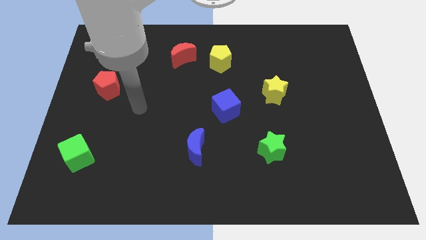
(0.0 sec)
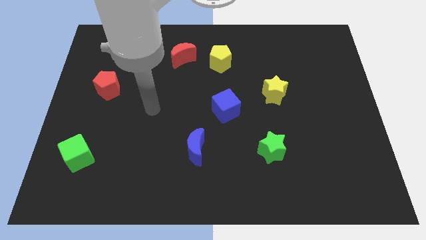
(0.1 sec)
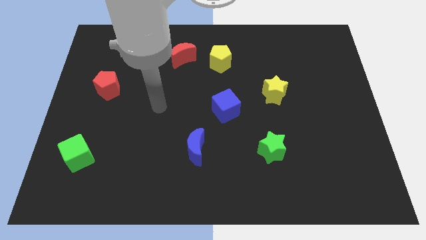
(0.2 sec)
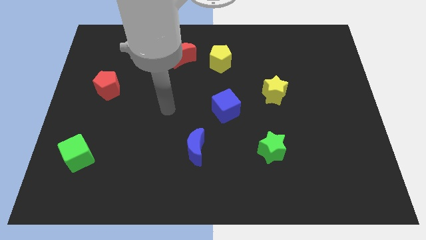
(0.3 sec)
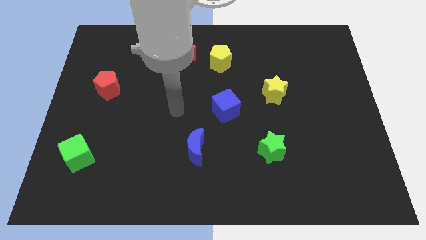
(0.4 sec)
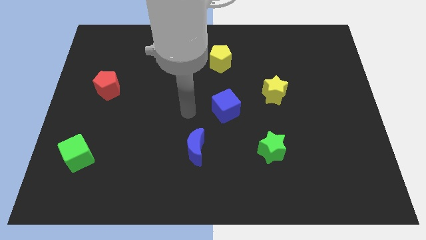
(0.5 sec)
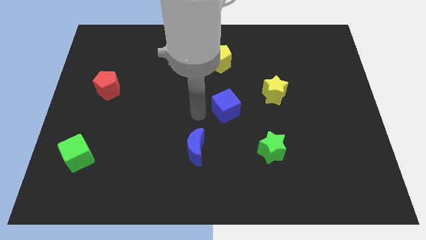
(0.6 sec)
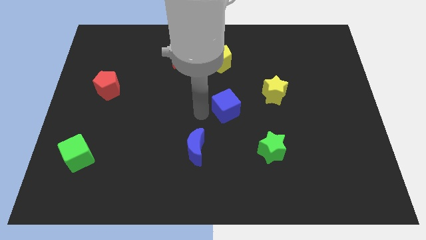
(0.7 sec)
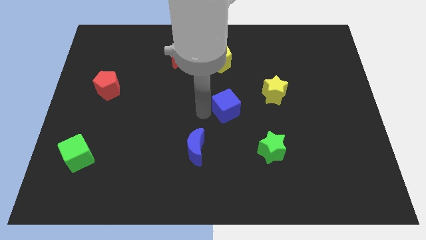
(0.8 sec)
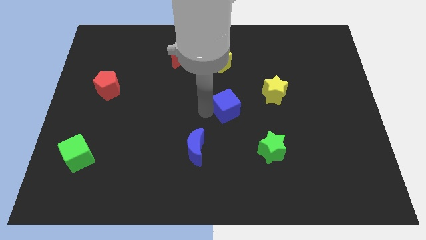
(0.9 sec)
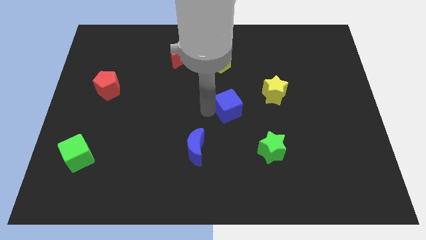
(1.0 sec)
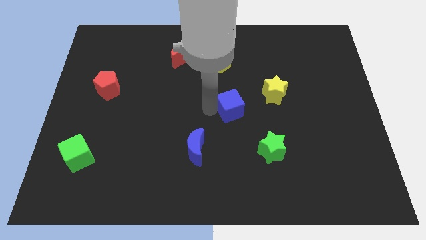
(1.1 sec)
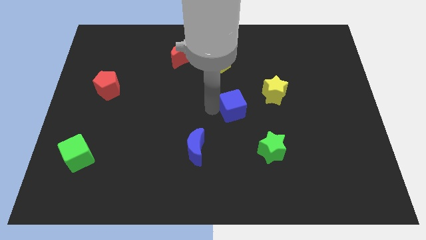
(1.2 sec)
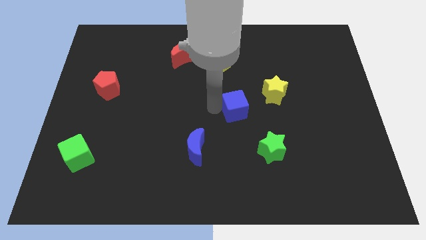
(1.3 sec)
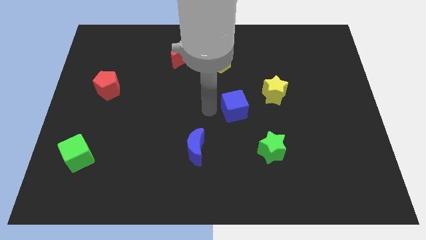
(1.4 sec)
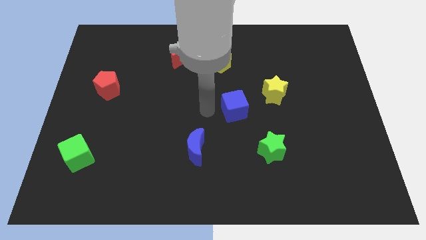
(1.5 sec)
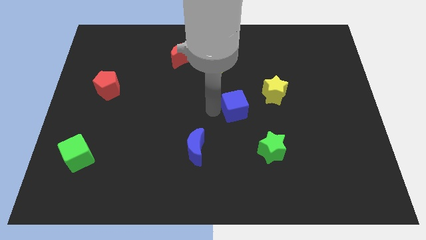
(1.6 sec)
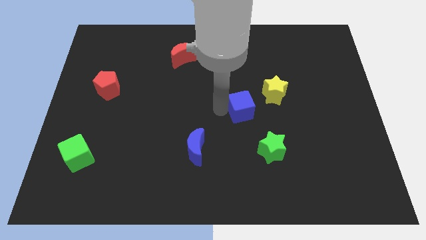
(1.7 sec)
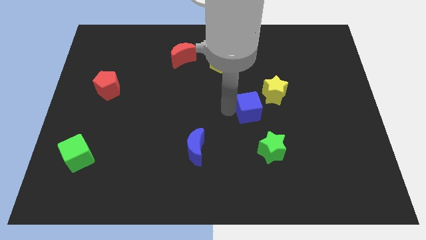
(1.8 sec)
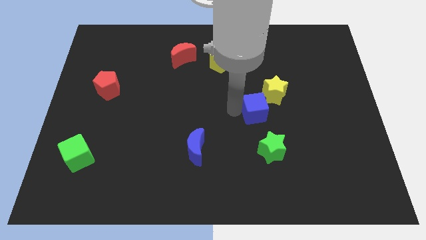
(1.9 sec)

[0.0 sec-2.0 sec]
slide the blue cube somewhat to the right

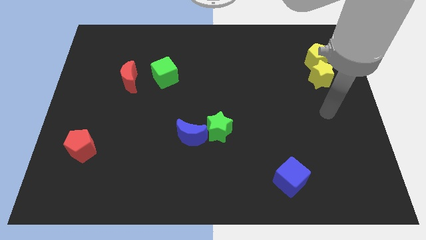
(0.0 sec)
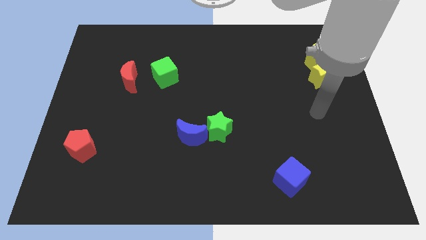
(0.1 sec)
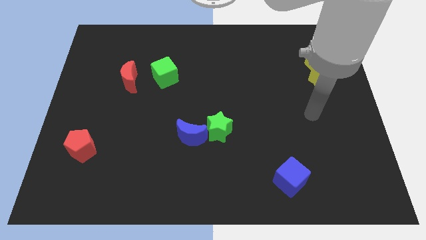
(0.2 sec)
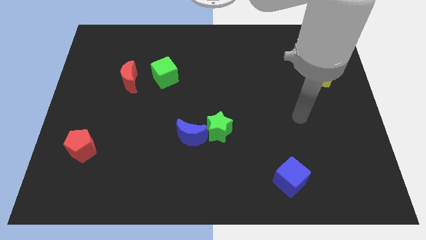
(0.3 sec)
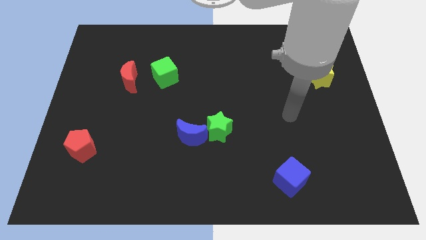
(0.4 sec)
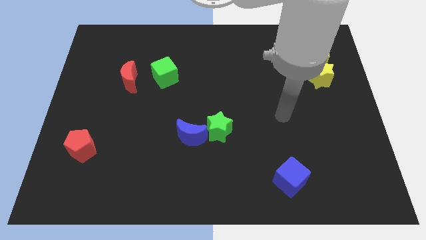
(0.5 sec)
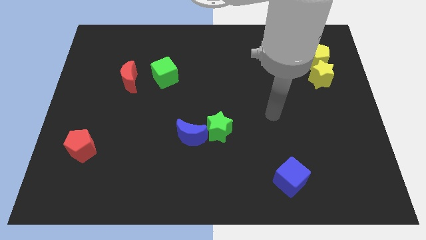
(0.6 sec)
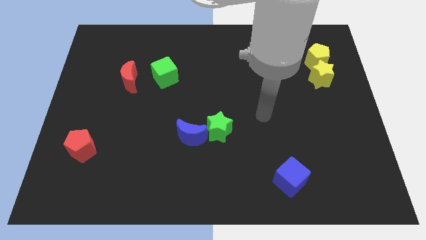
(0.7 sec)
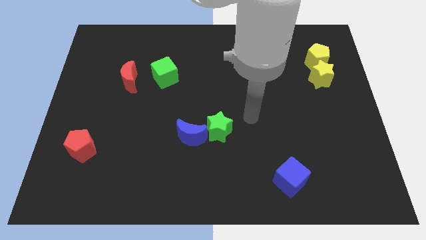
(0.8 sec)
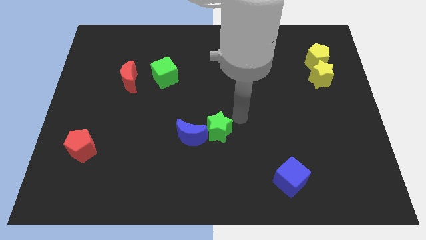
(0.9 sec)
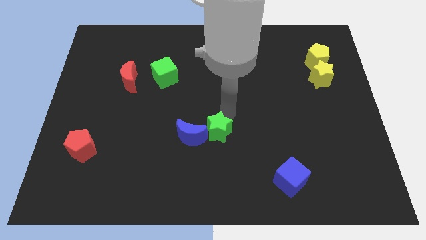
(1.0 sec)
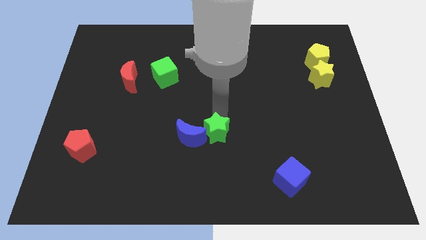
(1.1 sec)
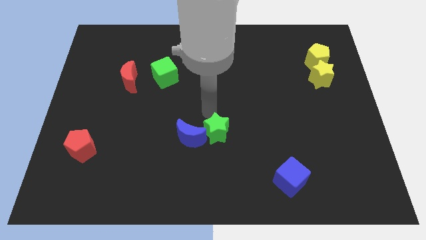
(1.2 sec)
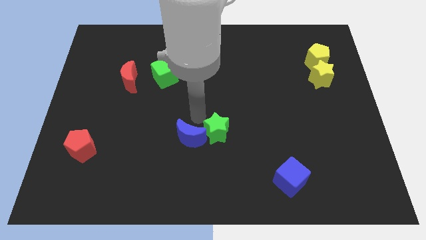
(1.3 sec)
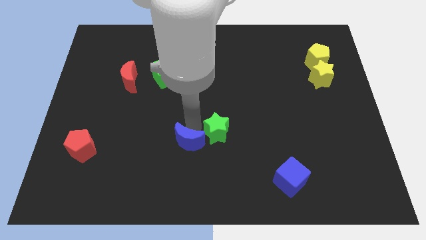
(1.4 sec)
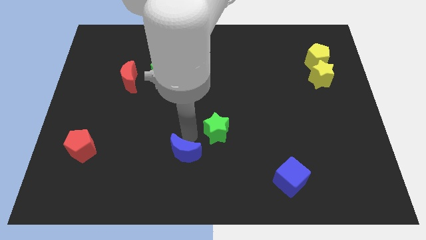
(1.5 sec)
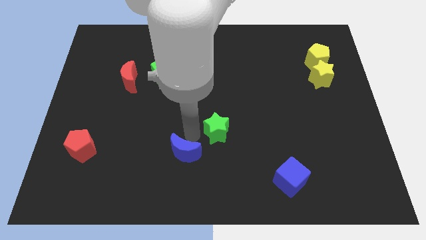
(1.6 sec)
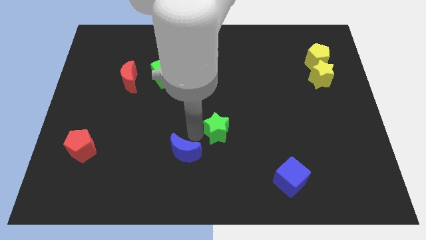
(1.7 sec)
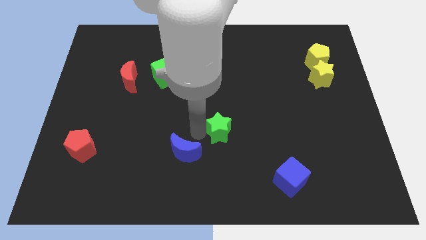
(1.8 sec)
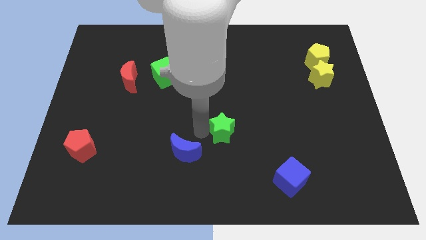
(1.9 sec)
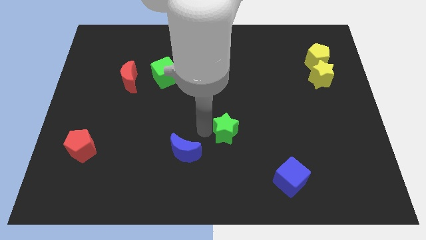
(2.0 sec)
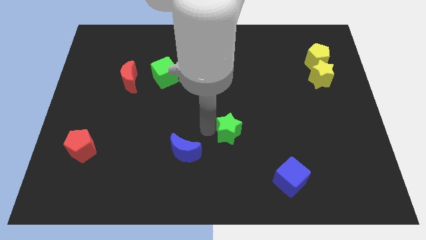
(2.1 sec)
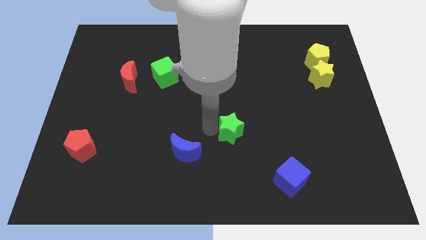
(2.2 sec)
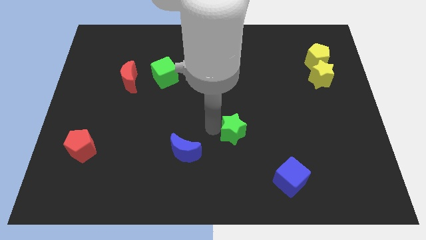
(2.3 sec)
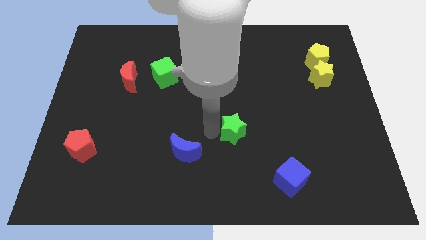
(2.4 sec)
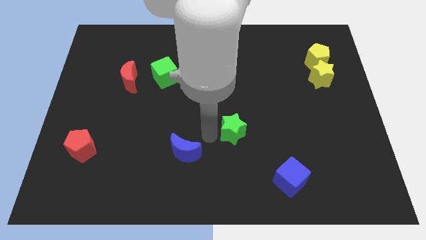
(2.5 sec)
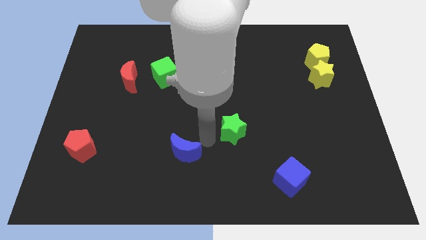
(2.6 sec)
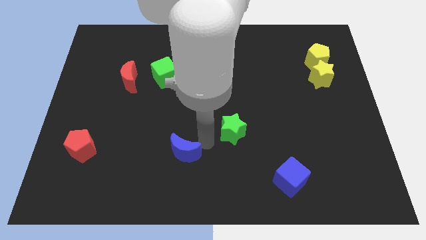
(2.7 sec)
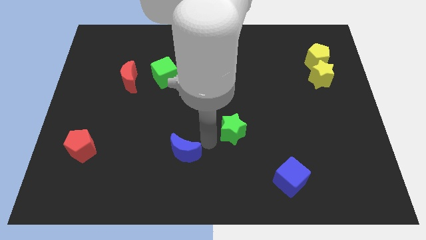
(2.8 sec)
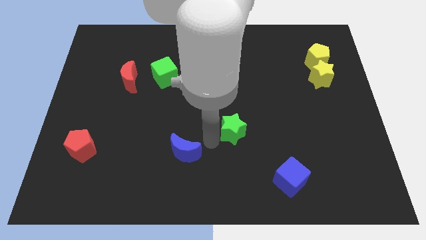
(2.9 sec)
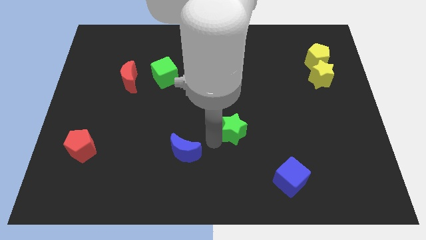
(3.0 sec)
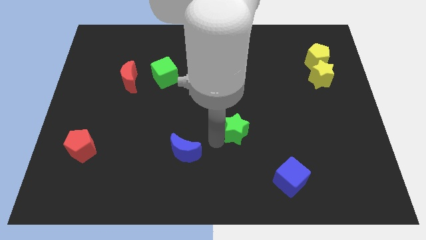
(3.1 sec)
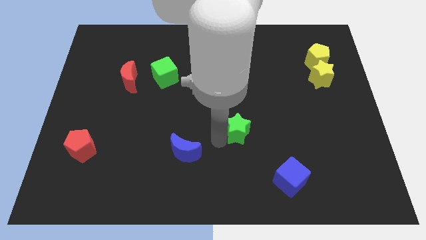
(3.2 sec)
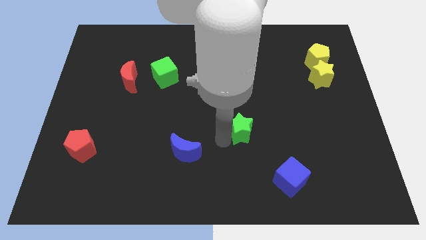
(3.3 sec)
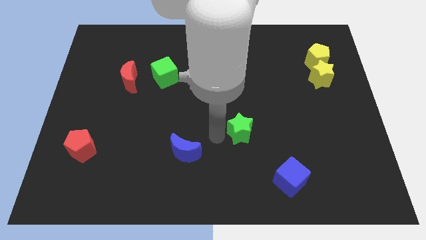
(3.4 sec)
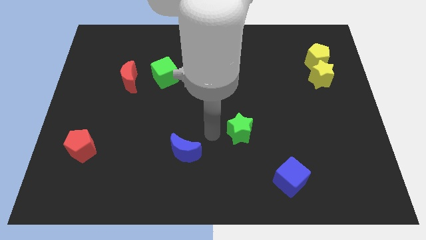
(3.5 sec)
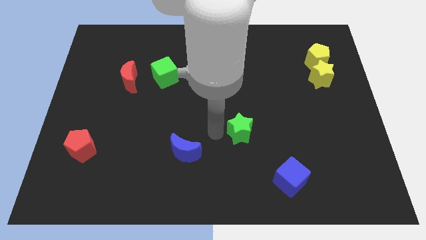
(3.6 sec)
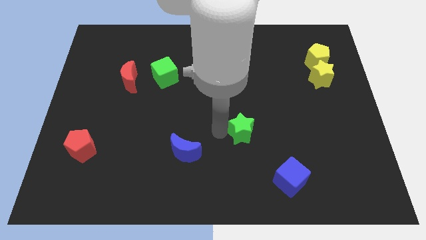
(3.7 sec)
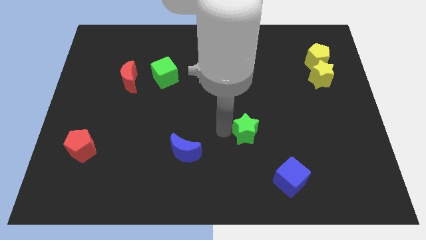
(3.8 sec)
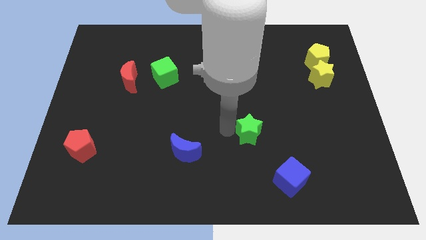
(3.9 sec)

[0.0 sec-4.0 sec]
slightly move the green star to the right

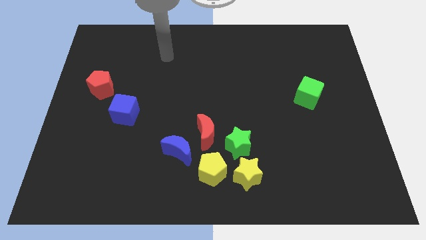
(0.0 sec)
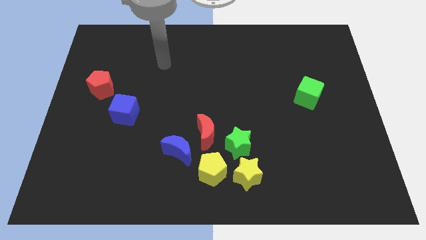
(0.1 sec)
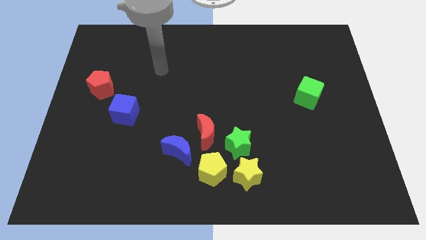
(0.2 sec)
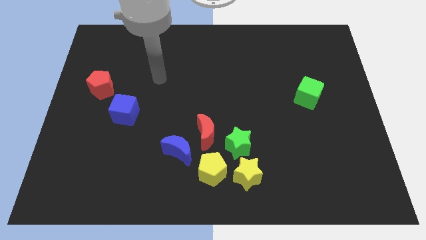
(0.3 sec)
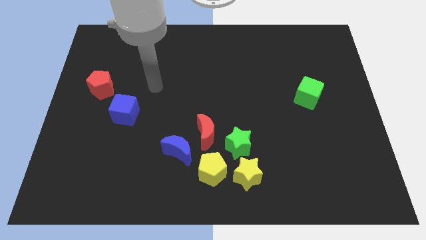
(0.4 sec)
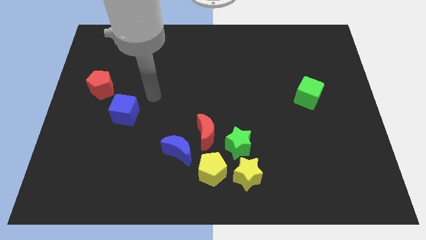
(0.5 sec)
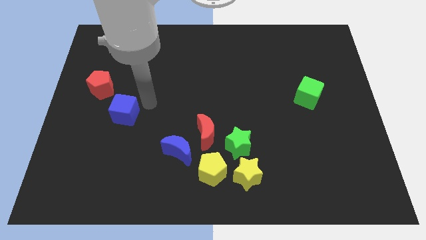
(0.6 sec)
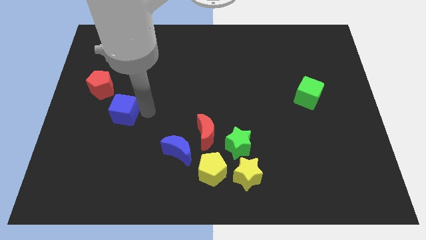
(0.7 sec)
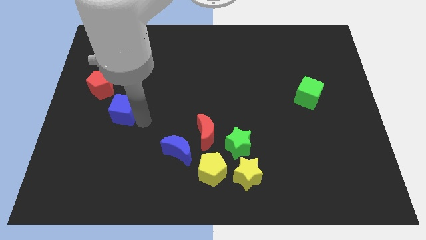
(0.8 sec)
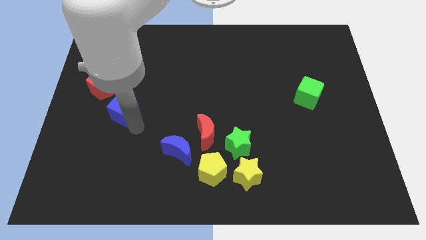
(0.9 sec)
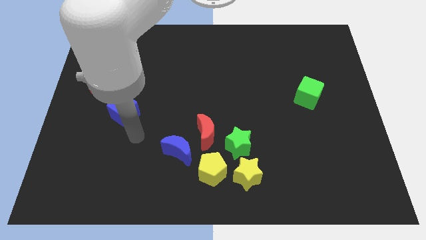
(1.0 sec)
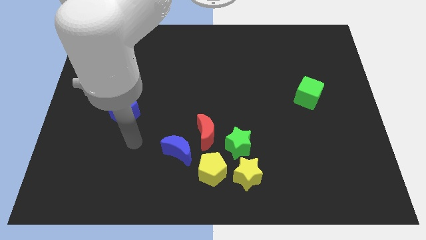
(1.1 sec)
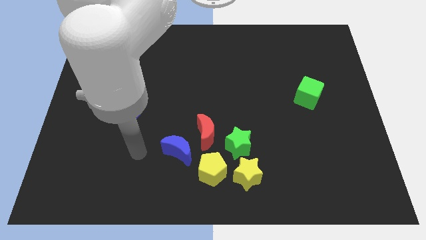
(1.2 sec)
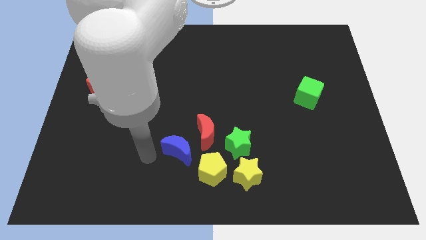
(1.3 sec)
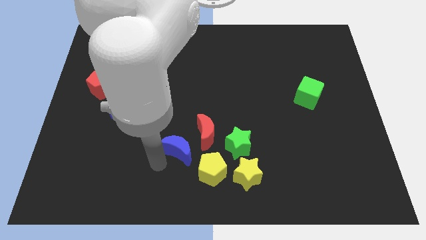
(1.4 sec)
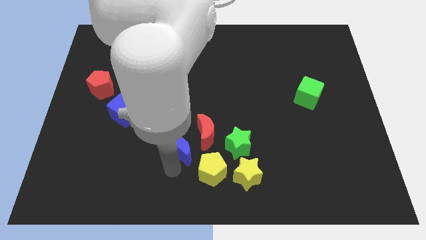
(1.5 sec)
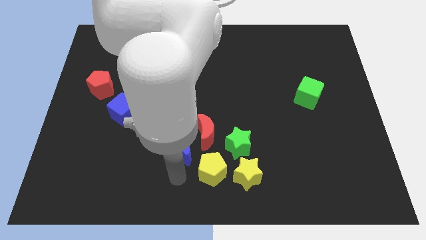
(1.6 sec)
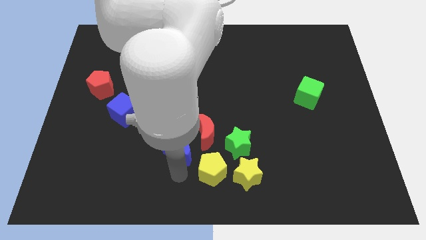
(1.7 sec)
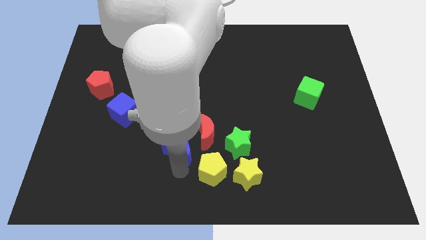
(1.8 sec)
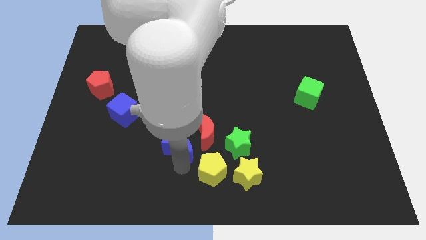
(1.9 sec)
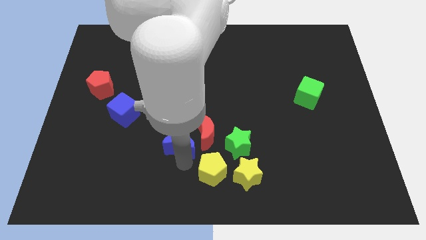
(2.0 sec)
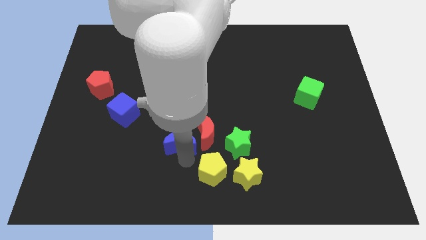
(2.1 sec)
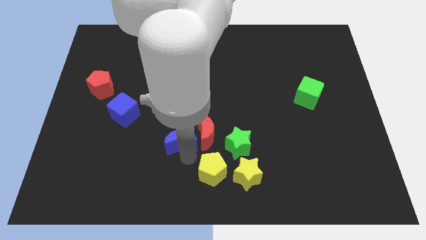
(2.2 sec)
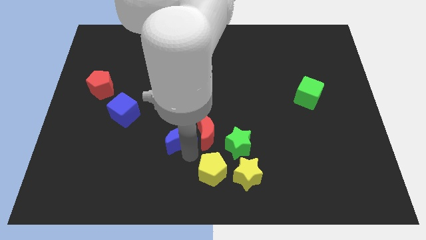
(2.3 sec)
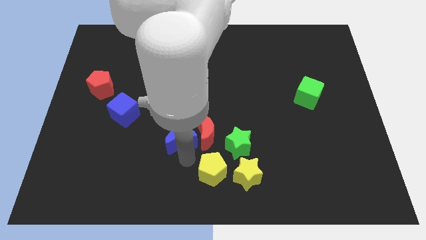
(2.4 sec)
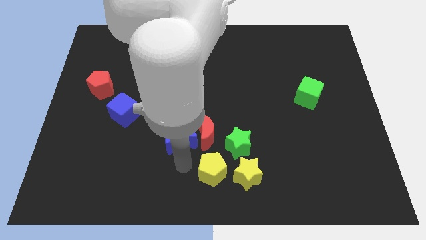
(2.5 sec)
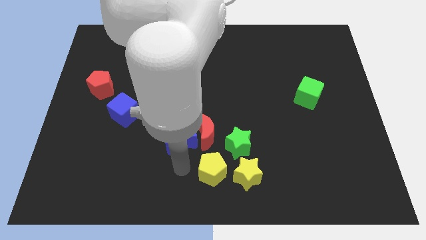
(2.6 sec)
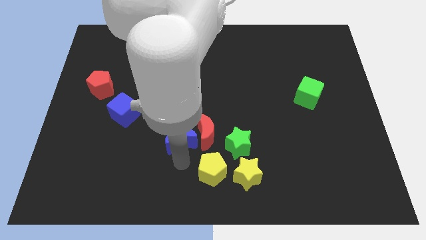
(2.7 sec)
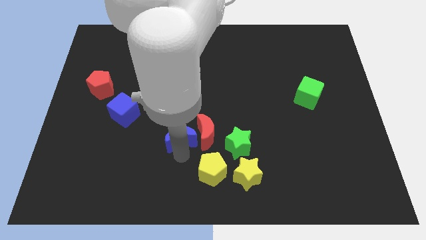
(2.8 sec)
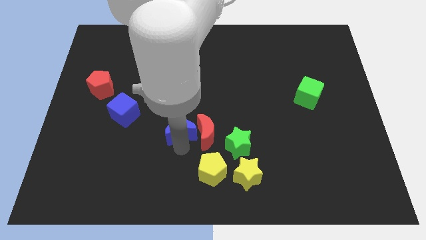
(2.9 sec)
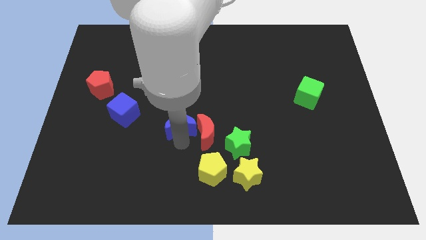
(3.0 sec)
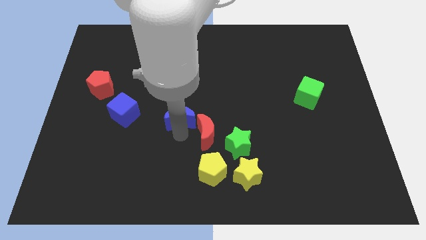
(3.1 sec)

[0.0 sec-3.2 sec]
slightly slide the blue moon up
